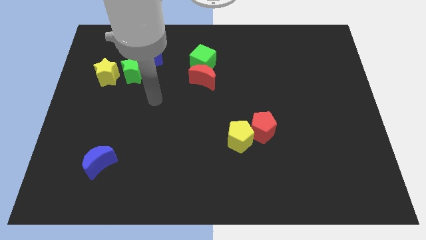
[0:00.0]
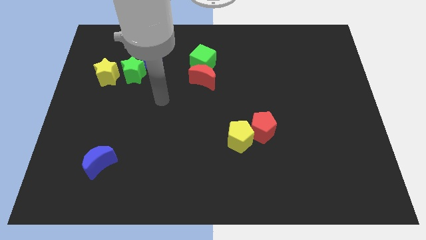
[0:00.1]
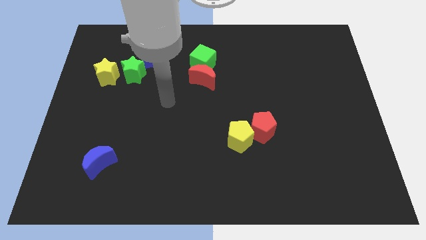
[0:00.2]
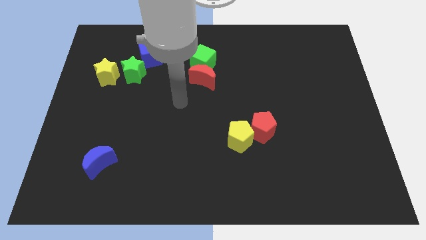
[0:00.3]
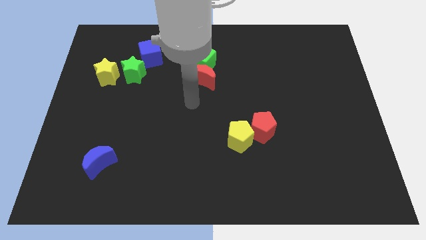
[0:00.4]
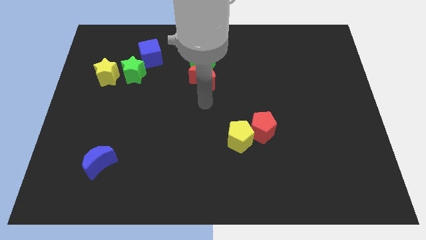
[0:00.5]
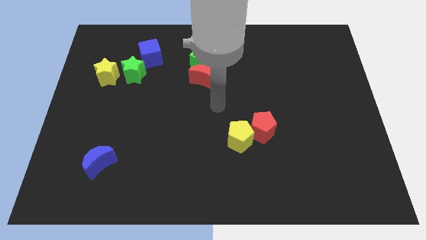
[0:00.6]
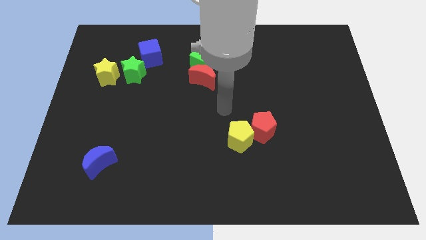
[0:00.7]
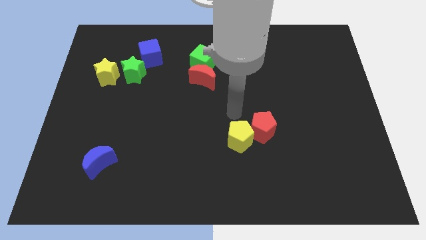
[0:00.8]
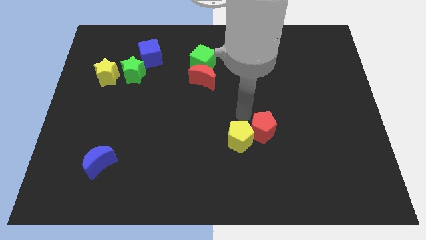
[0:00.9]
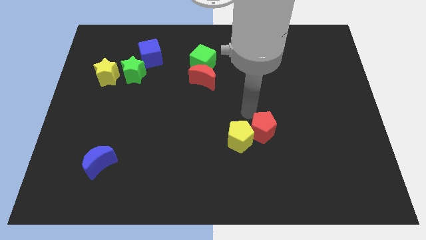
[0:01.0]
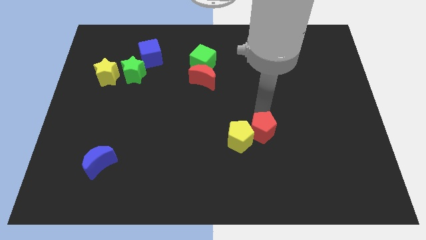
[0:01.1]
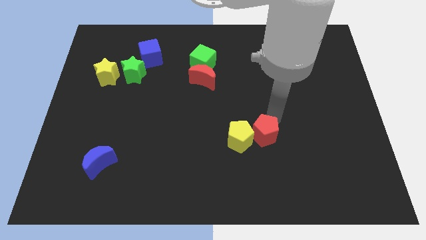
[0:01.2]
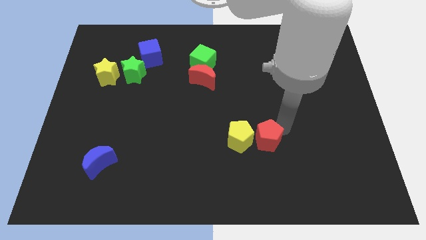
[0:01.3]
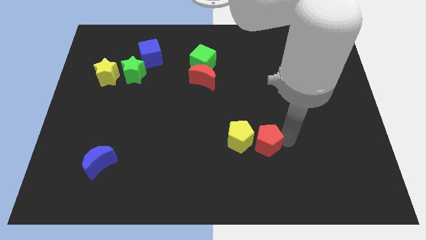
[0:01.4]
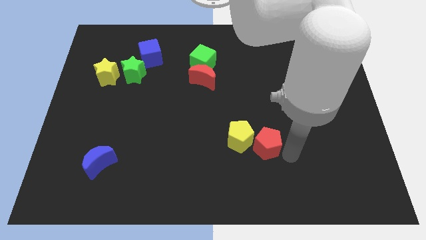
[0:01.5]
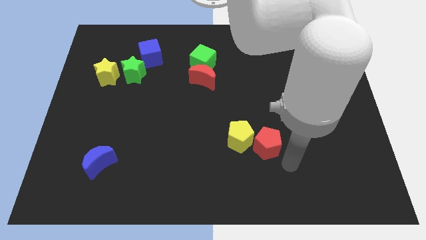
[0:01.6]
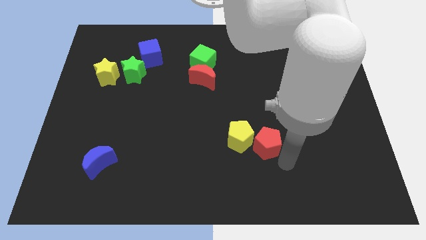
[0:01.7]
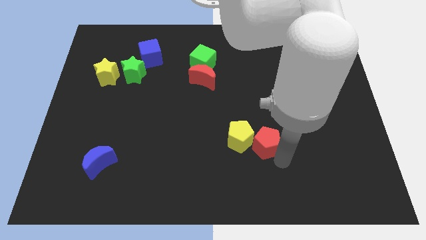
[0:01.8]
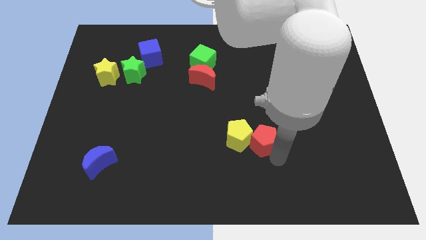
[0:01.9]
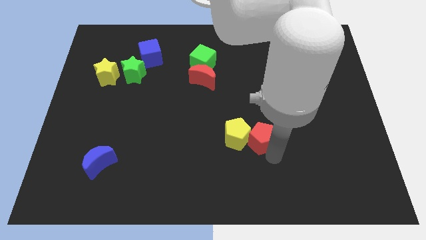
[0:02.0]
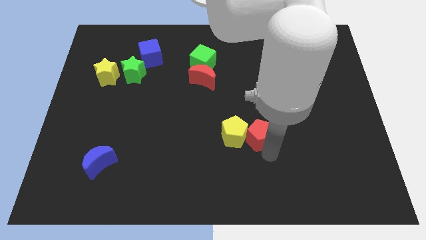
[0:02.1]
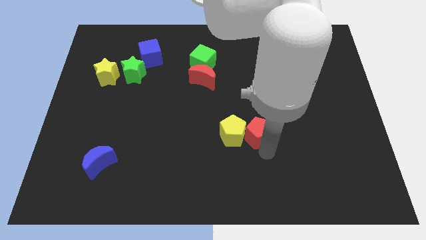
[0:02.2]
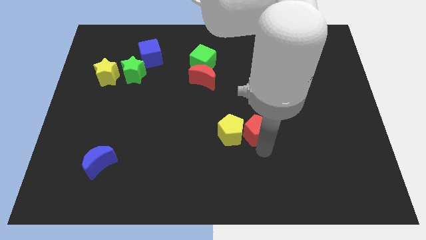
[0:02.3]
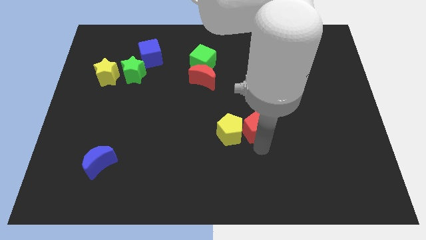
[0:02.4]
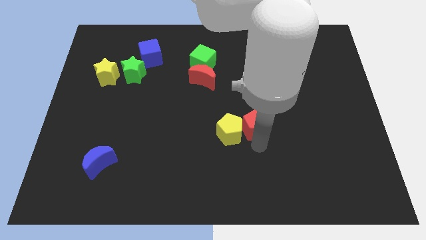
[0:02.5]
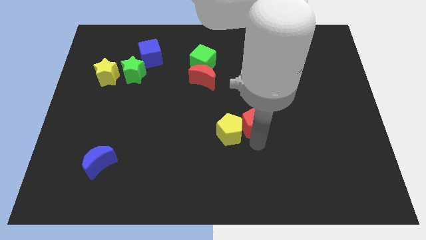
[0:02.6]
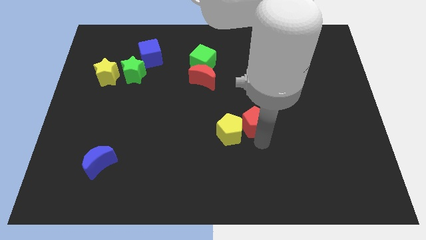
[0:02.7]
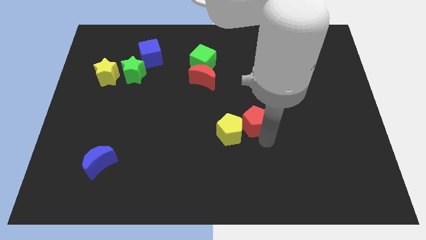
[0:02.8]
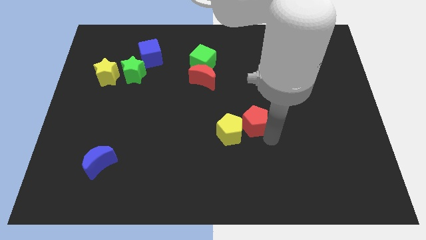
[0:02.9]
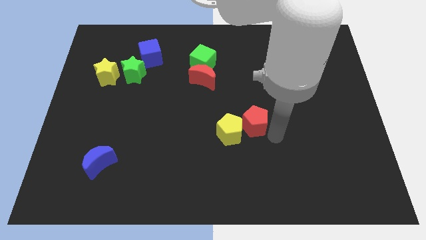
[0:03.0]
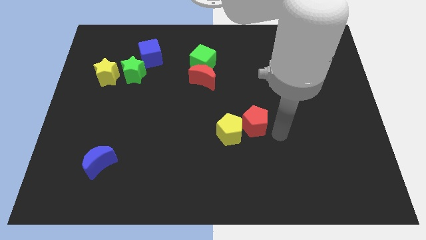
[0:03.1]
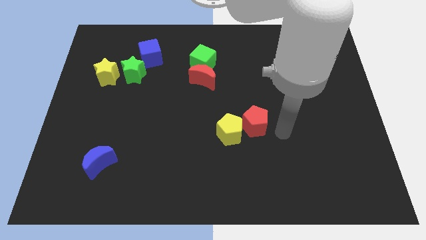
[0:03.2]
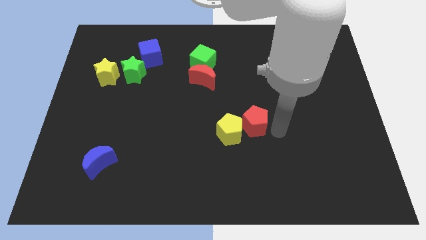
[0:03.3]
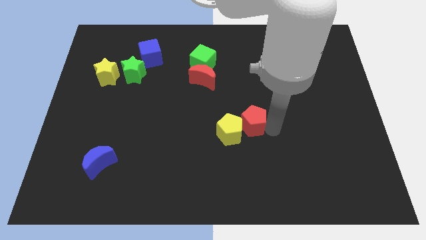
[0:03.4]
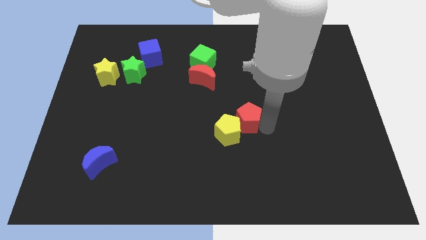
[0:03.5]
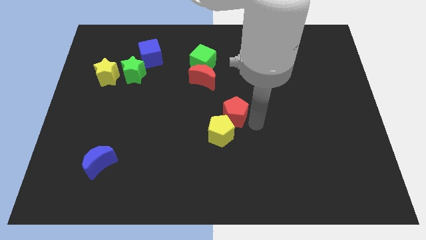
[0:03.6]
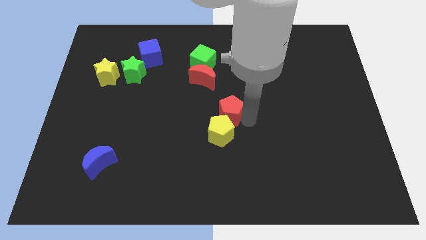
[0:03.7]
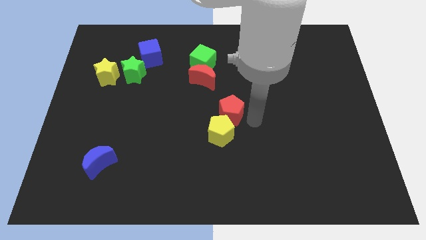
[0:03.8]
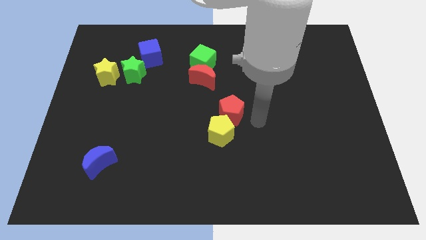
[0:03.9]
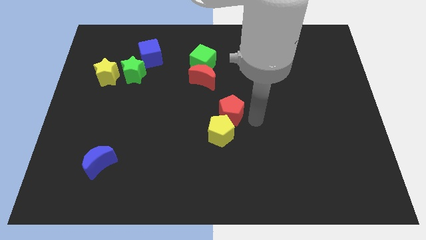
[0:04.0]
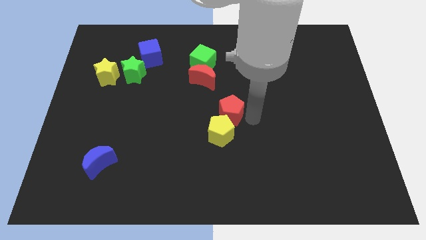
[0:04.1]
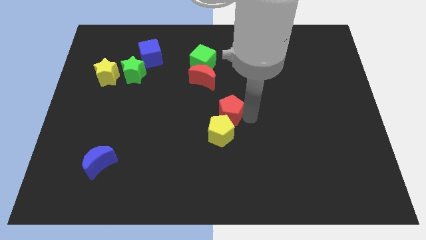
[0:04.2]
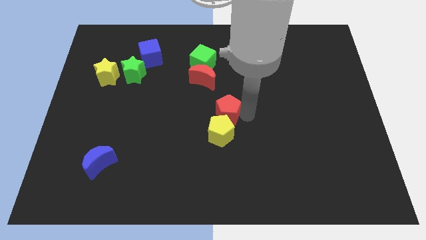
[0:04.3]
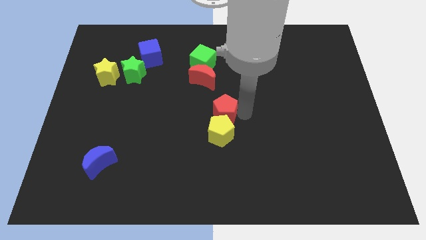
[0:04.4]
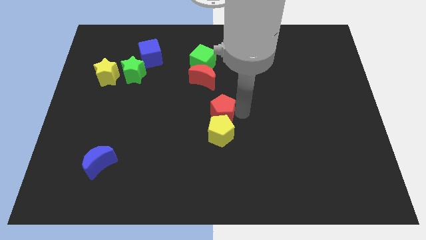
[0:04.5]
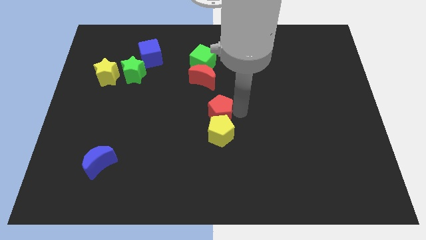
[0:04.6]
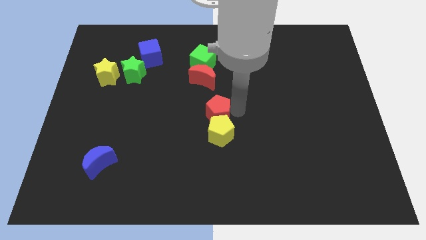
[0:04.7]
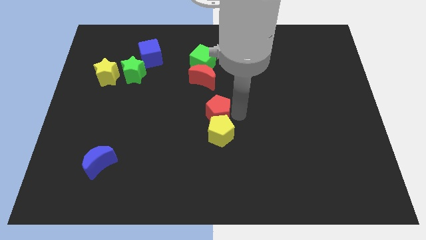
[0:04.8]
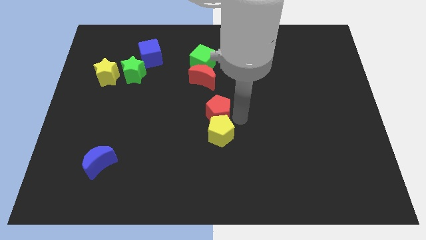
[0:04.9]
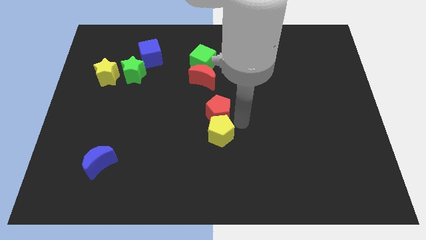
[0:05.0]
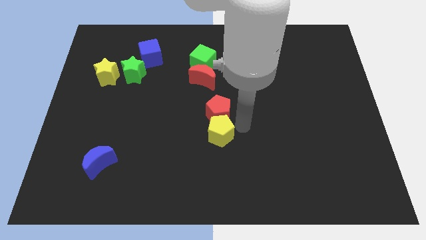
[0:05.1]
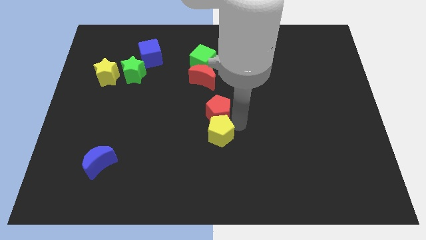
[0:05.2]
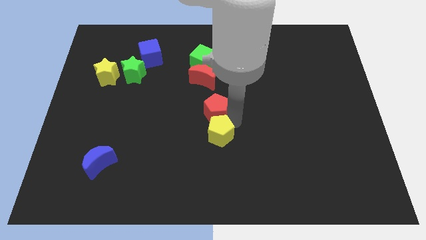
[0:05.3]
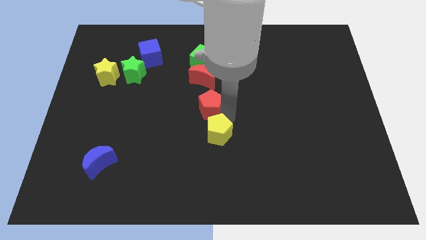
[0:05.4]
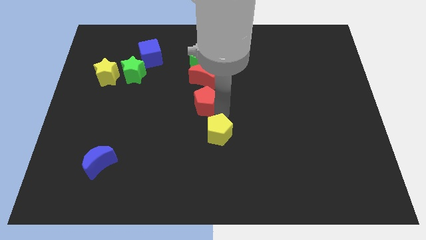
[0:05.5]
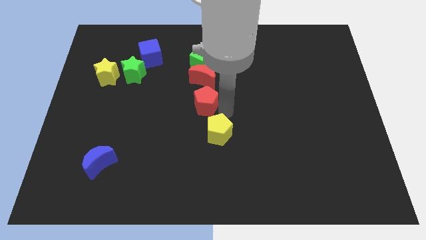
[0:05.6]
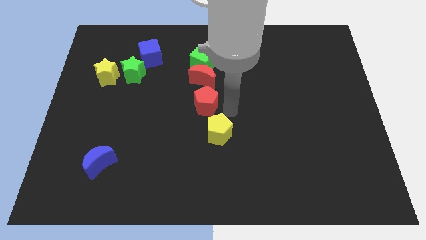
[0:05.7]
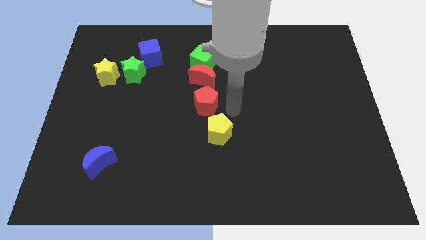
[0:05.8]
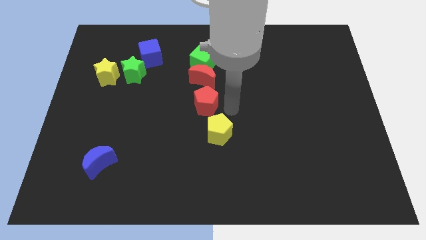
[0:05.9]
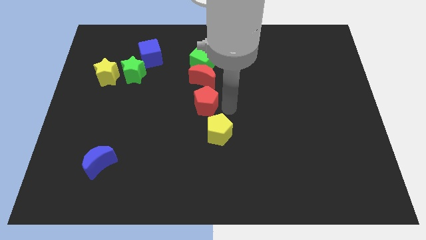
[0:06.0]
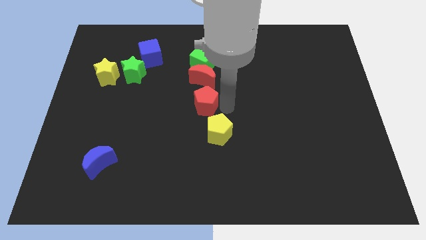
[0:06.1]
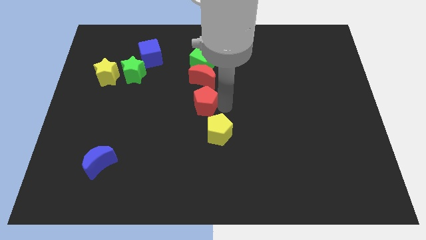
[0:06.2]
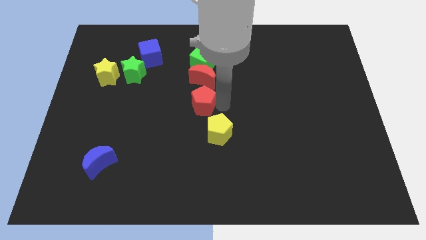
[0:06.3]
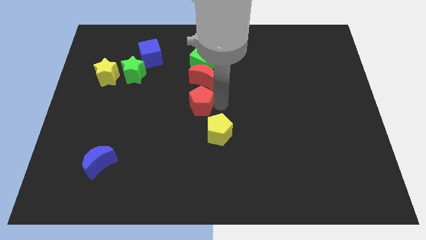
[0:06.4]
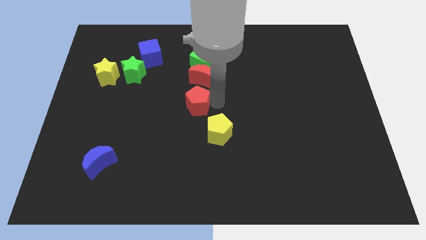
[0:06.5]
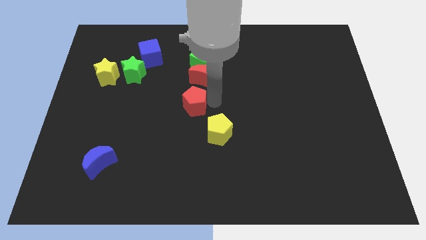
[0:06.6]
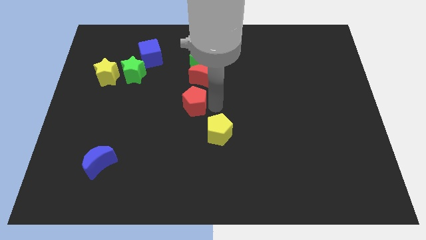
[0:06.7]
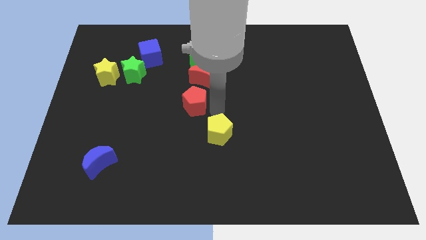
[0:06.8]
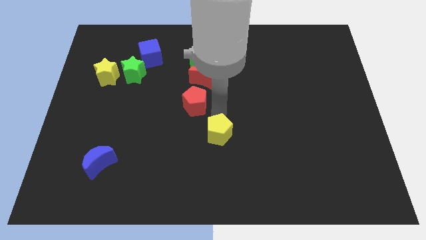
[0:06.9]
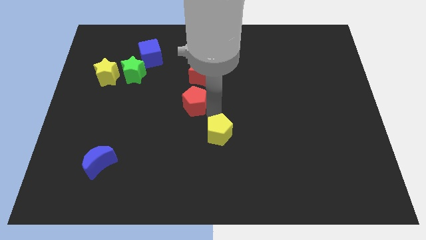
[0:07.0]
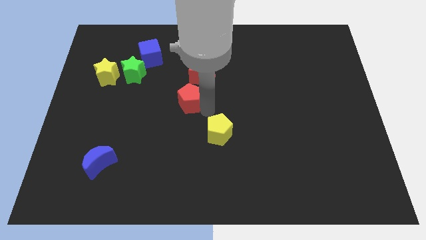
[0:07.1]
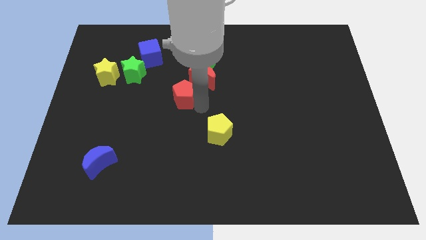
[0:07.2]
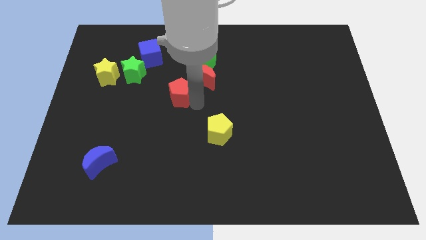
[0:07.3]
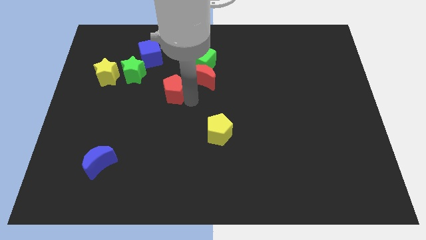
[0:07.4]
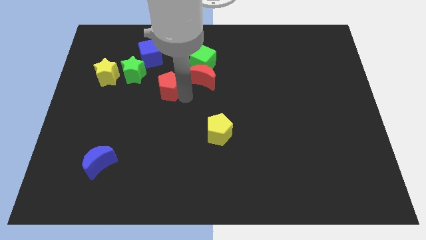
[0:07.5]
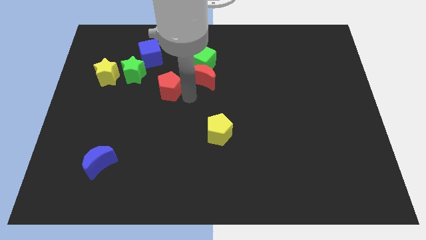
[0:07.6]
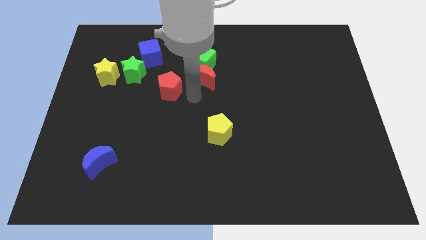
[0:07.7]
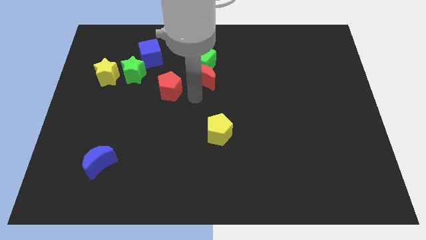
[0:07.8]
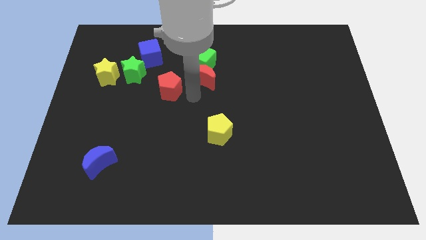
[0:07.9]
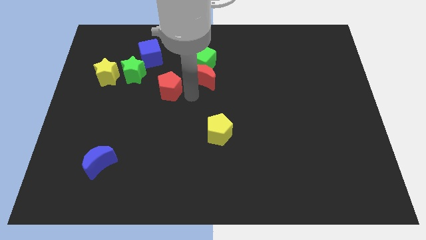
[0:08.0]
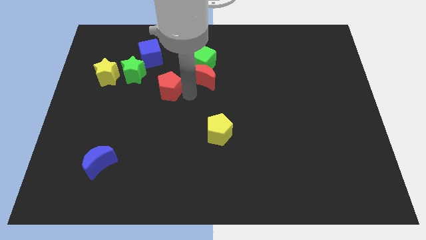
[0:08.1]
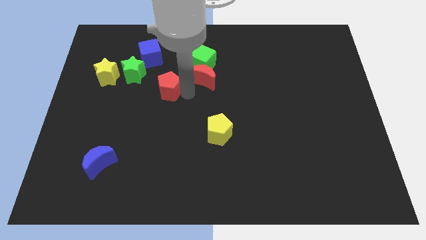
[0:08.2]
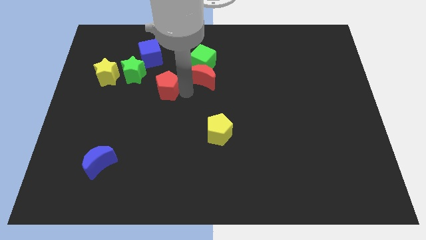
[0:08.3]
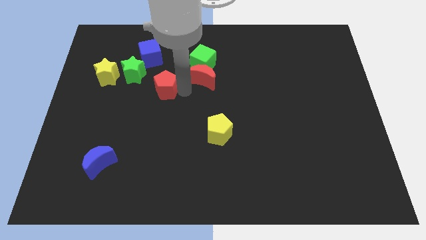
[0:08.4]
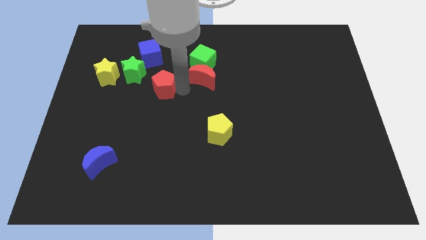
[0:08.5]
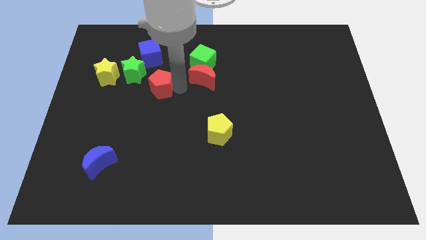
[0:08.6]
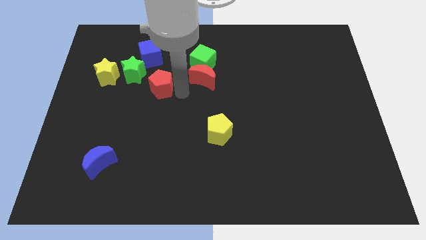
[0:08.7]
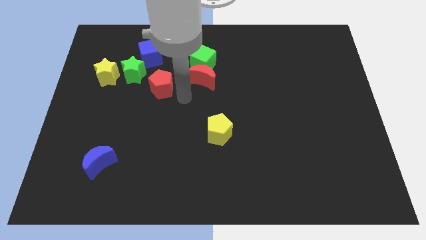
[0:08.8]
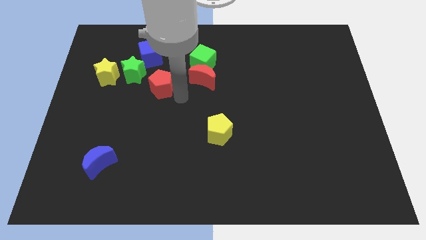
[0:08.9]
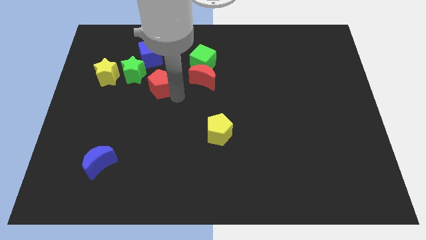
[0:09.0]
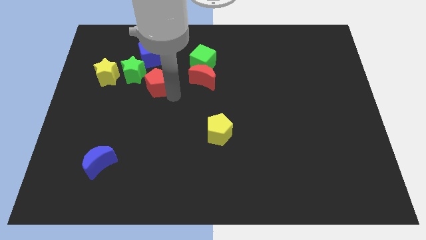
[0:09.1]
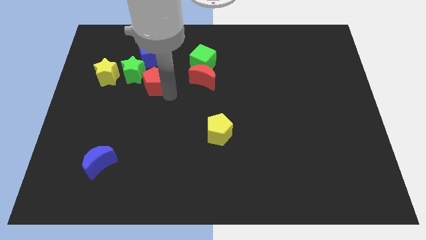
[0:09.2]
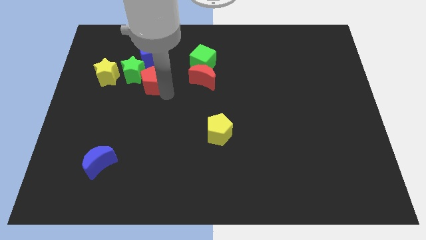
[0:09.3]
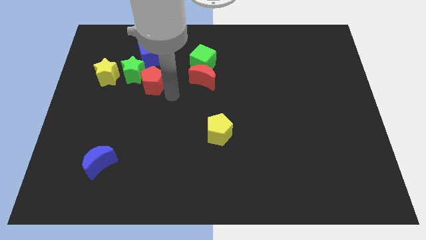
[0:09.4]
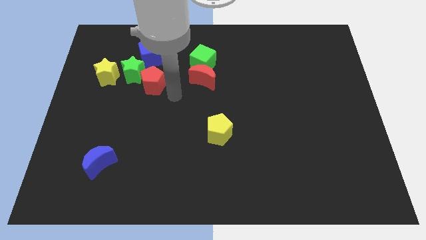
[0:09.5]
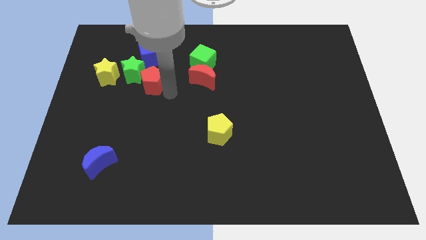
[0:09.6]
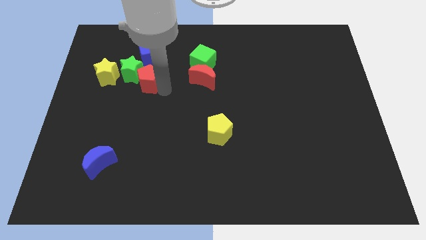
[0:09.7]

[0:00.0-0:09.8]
put the red pentagon close to the green star
